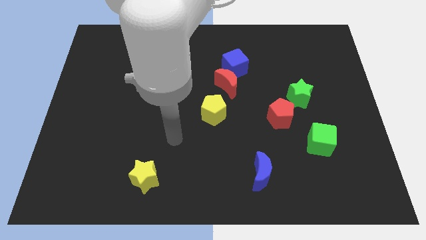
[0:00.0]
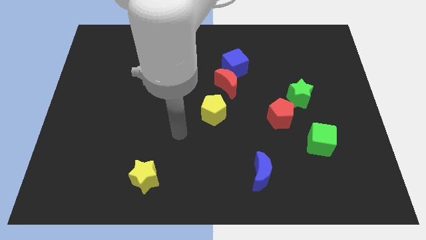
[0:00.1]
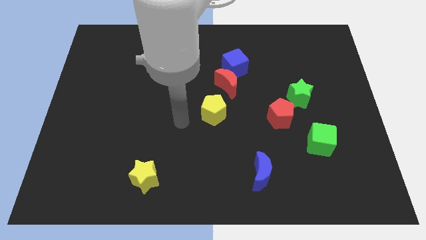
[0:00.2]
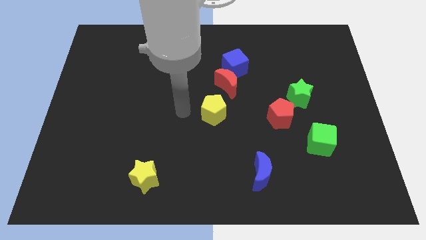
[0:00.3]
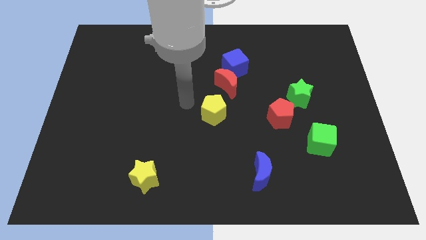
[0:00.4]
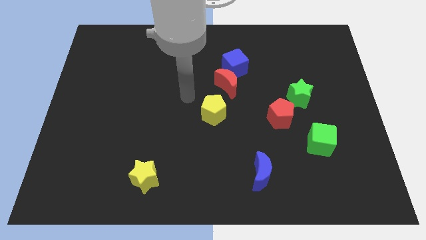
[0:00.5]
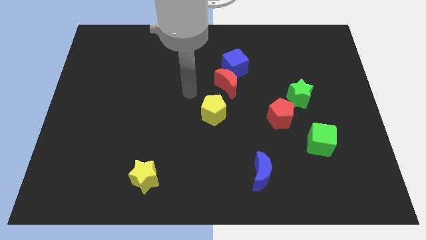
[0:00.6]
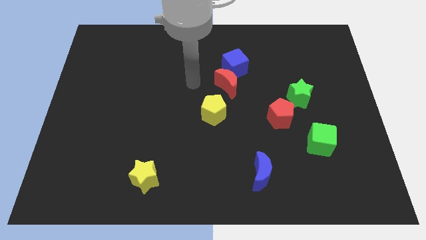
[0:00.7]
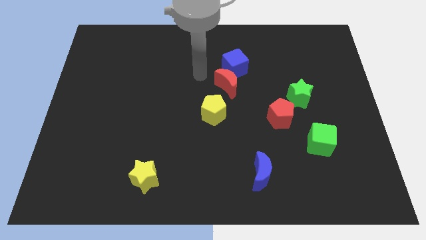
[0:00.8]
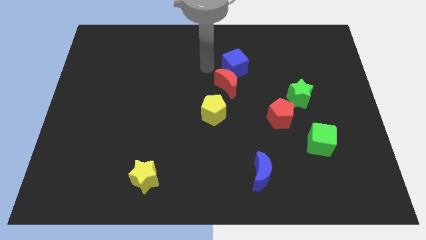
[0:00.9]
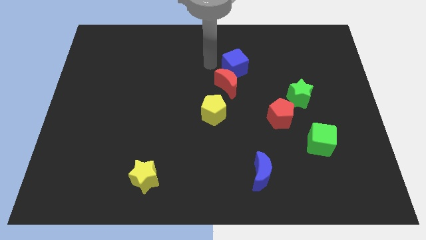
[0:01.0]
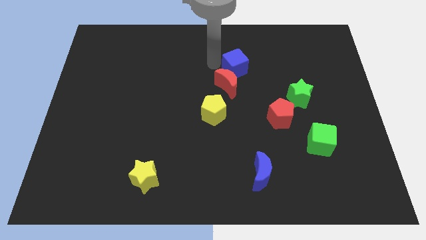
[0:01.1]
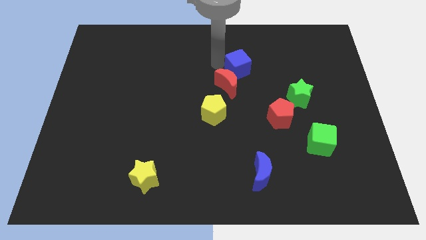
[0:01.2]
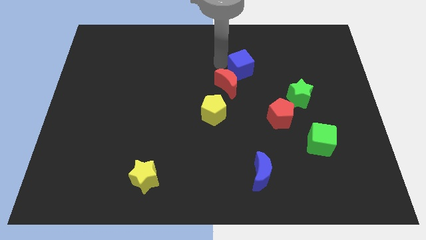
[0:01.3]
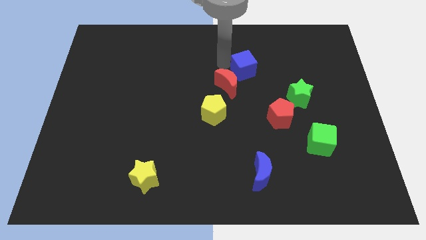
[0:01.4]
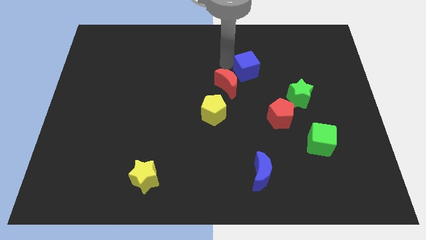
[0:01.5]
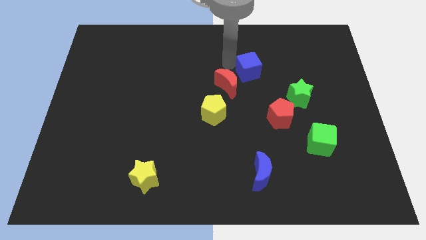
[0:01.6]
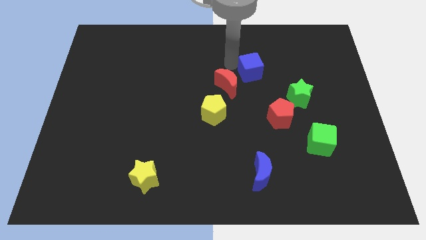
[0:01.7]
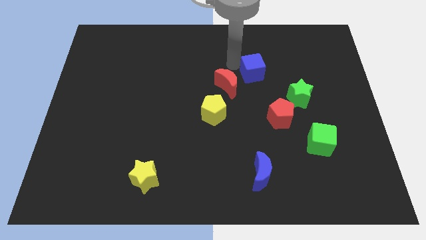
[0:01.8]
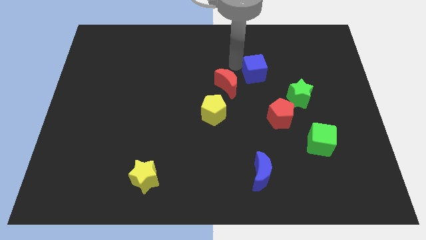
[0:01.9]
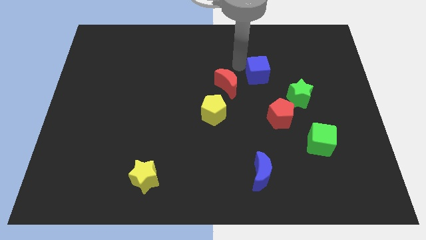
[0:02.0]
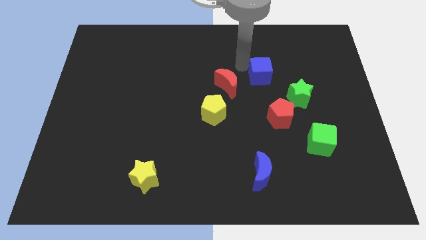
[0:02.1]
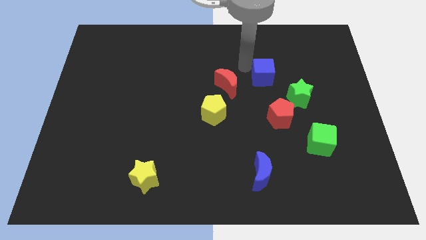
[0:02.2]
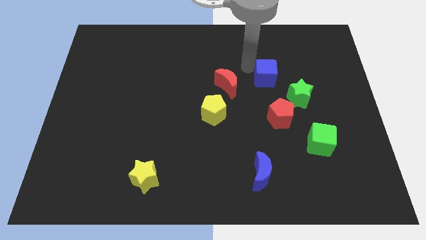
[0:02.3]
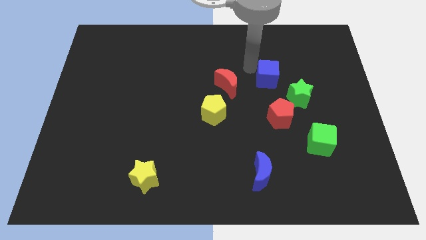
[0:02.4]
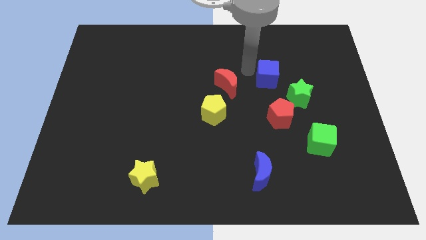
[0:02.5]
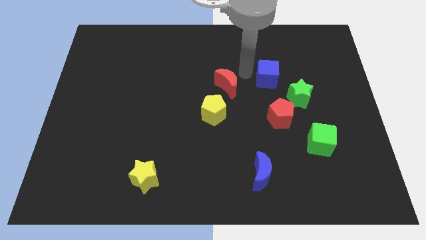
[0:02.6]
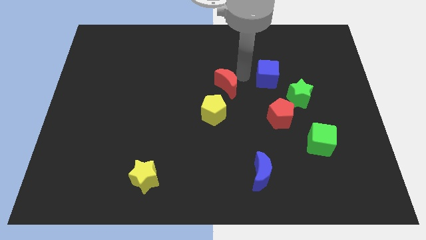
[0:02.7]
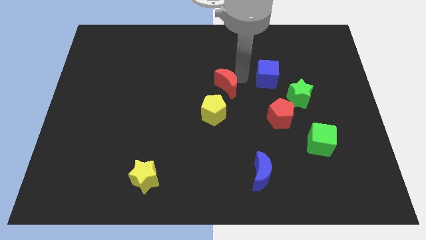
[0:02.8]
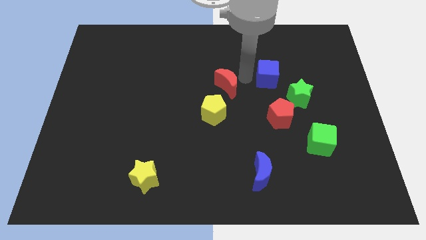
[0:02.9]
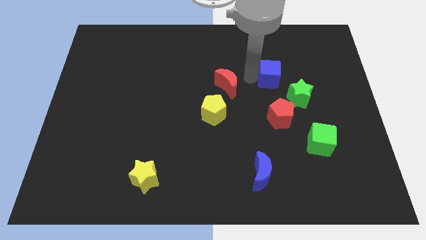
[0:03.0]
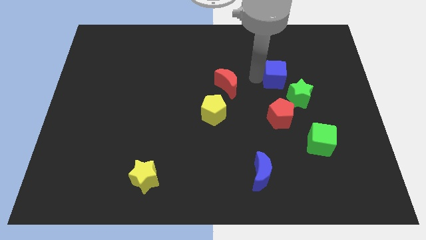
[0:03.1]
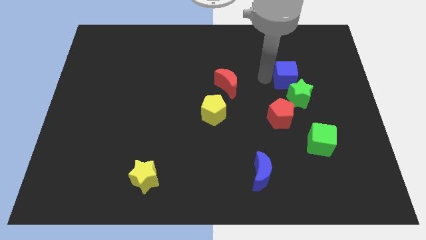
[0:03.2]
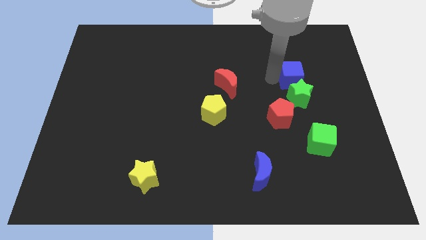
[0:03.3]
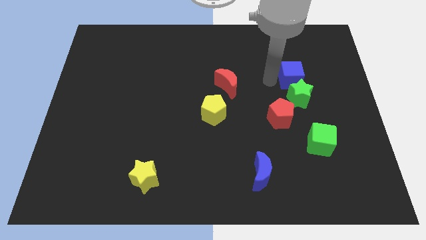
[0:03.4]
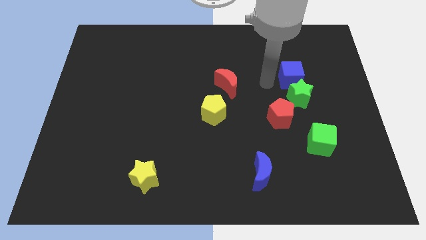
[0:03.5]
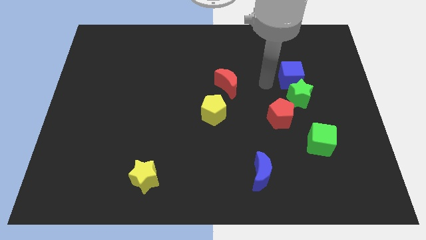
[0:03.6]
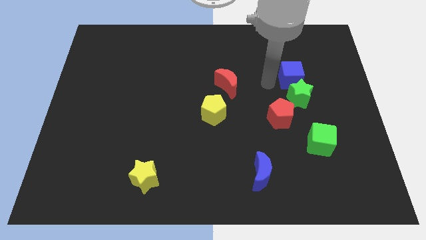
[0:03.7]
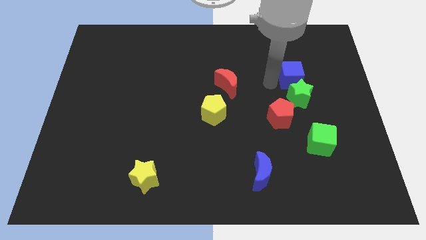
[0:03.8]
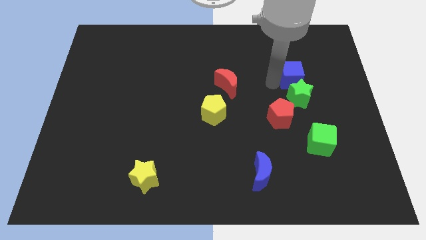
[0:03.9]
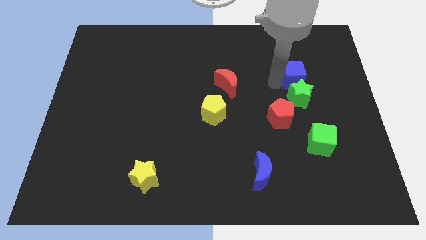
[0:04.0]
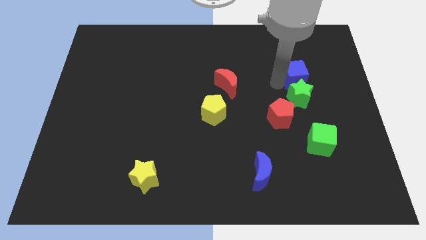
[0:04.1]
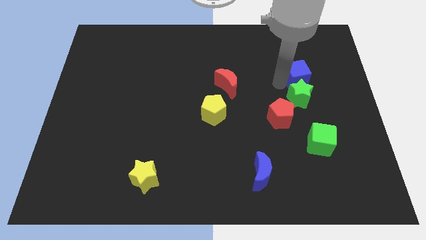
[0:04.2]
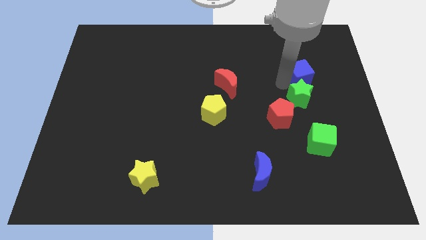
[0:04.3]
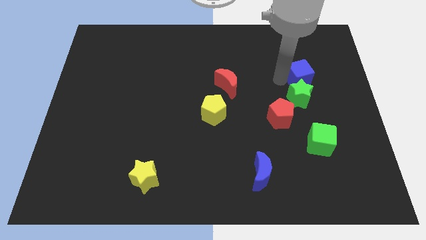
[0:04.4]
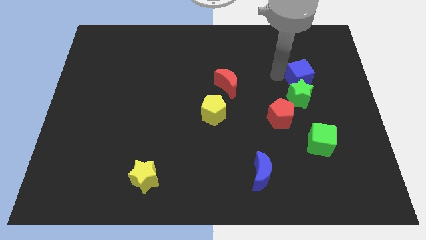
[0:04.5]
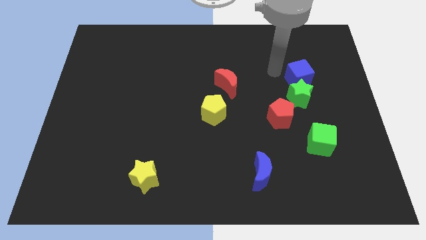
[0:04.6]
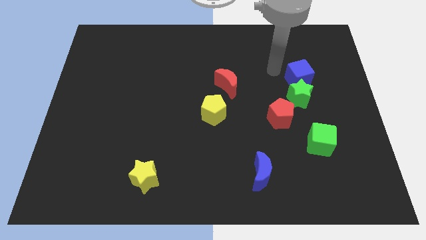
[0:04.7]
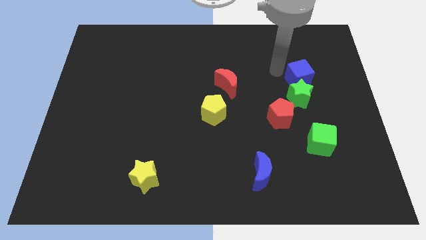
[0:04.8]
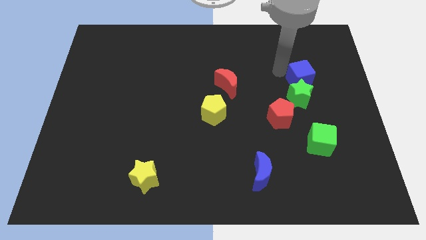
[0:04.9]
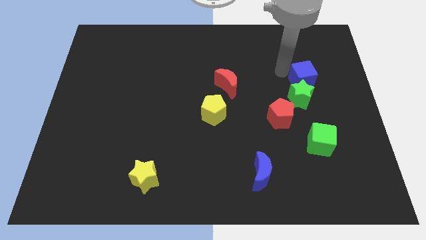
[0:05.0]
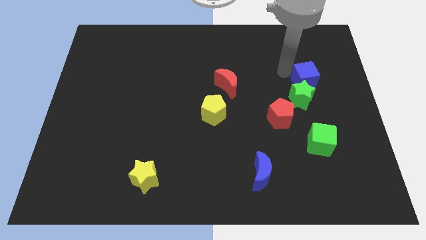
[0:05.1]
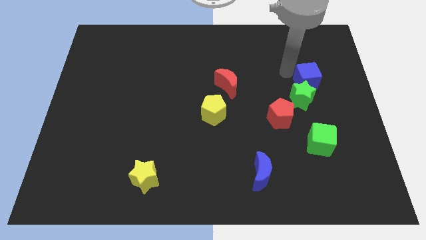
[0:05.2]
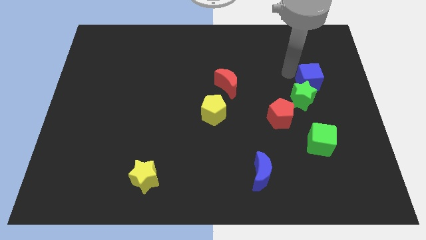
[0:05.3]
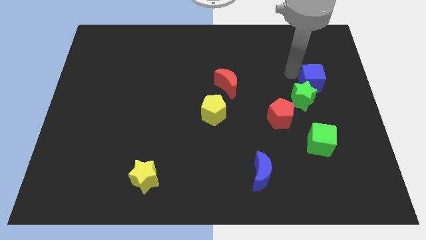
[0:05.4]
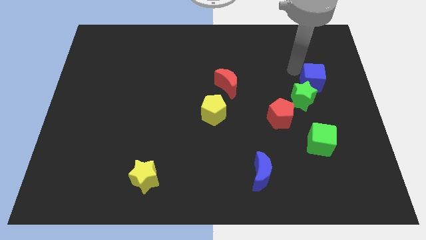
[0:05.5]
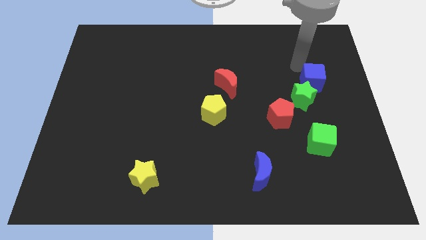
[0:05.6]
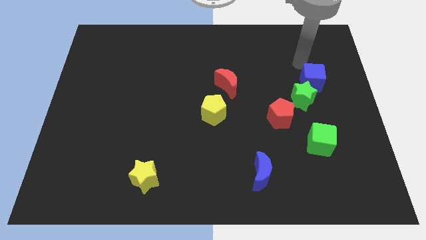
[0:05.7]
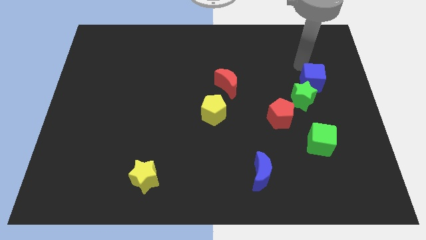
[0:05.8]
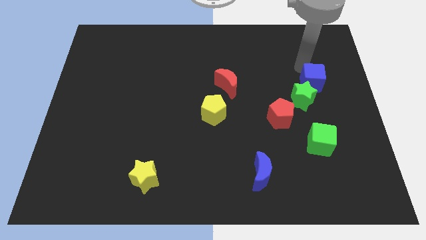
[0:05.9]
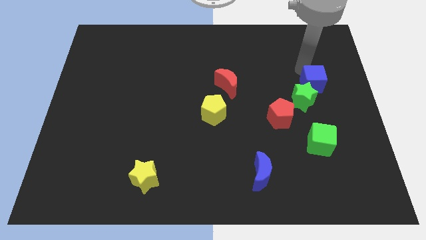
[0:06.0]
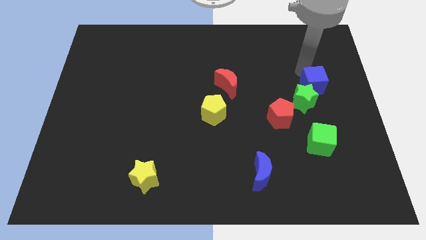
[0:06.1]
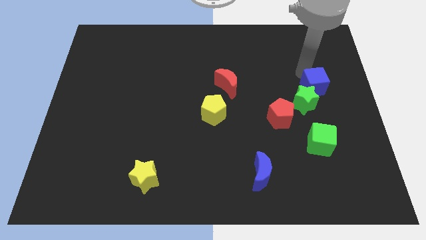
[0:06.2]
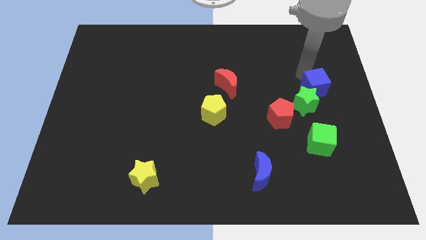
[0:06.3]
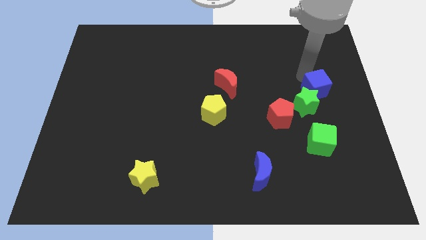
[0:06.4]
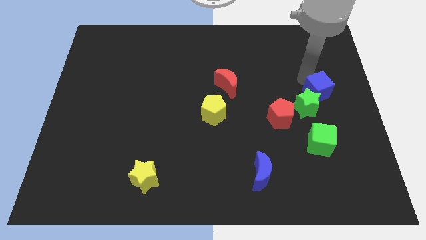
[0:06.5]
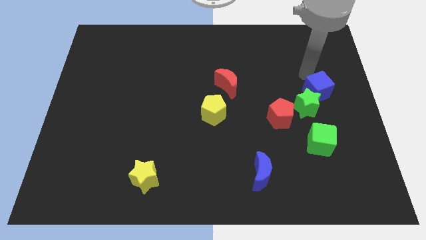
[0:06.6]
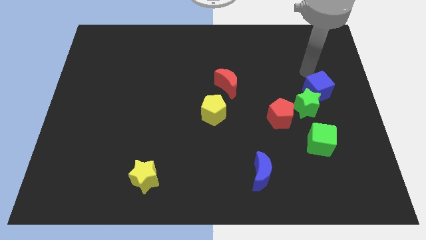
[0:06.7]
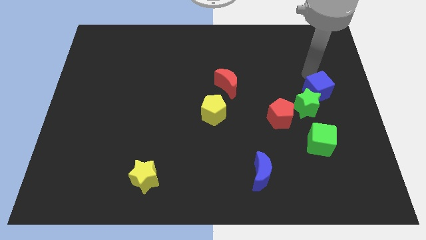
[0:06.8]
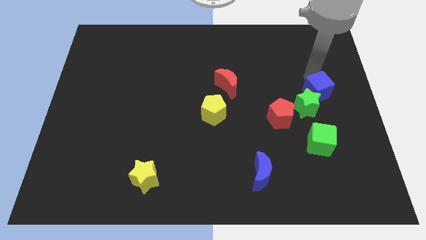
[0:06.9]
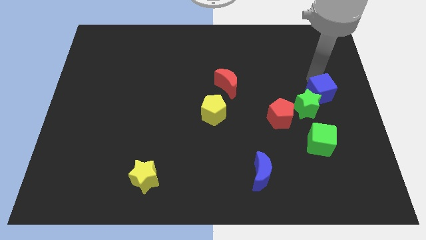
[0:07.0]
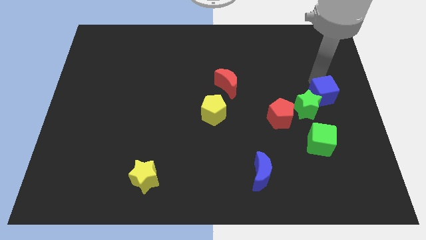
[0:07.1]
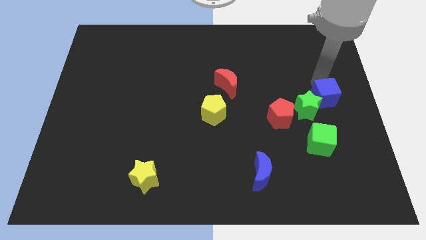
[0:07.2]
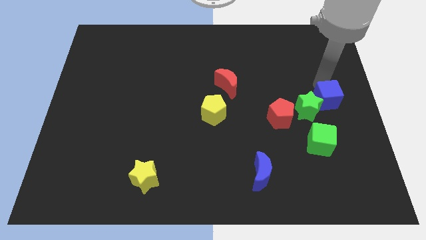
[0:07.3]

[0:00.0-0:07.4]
push the blue cube down and right

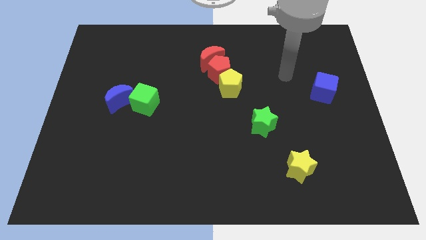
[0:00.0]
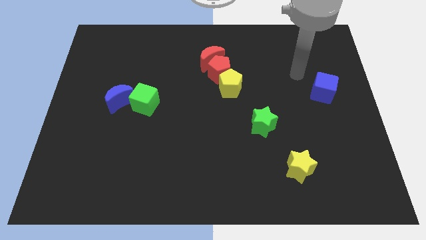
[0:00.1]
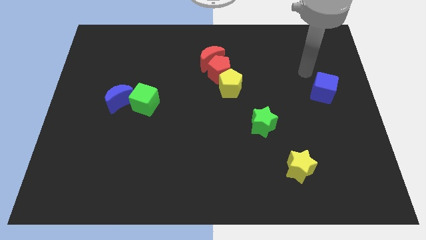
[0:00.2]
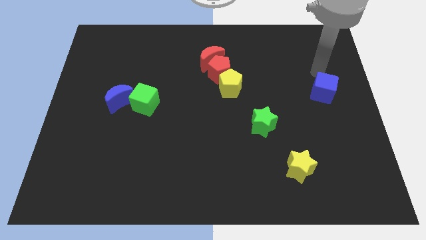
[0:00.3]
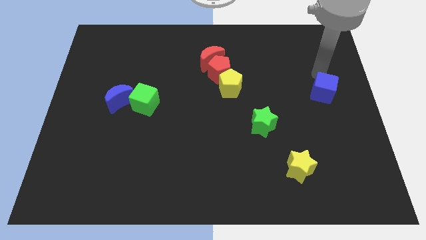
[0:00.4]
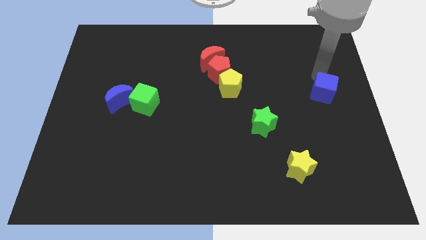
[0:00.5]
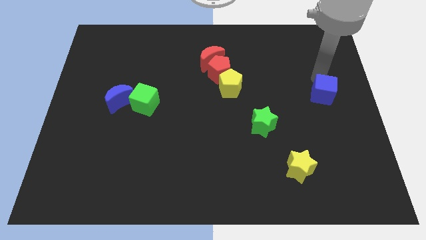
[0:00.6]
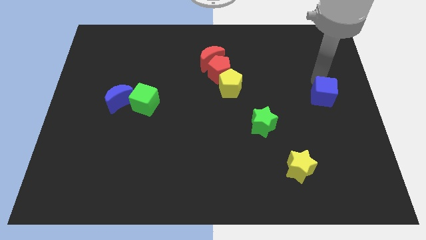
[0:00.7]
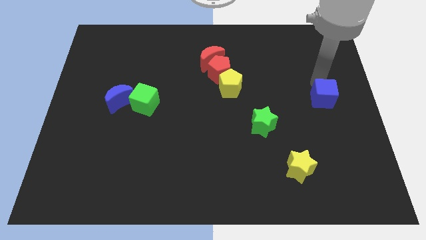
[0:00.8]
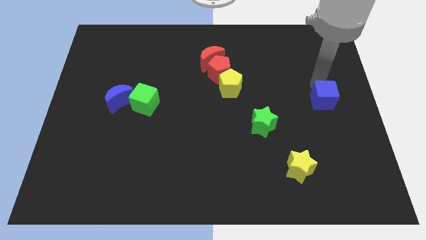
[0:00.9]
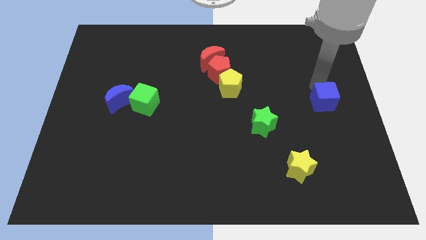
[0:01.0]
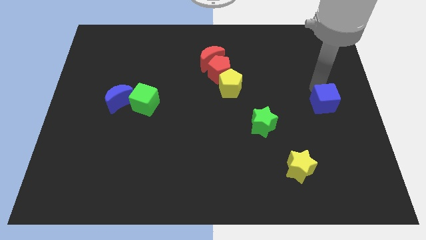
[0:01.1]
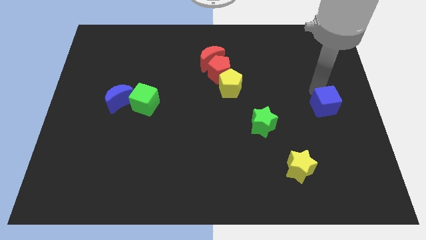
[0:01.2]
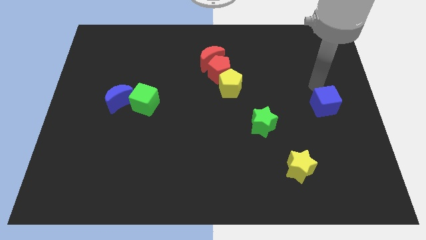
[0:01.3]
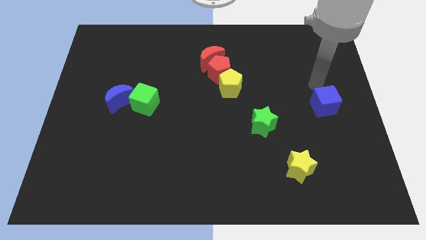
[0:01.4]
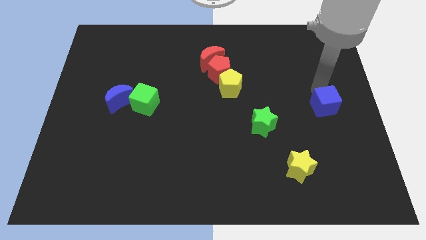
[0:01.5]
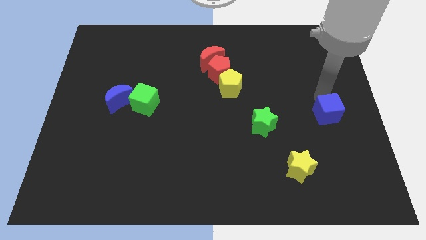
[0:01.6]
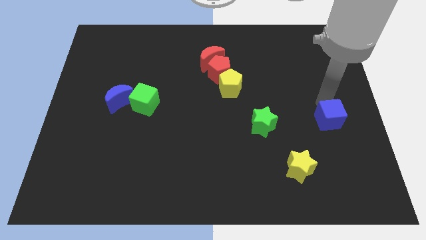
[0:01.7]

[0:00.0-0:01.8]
slide the blue cube somewhat down
